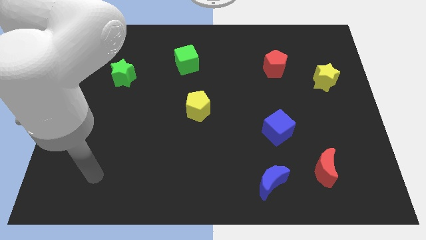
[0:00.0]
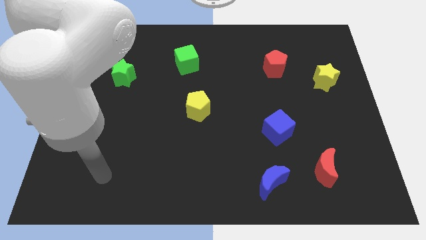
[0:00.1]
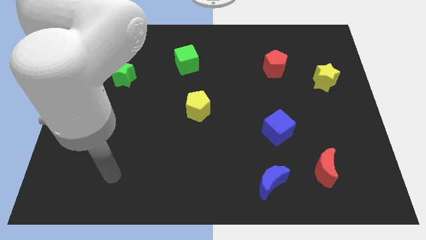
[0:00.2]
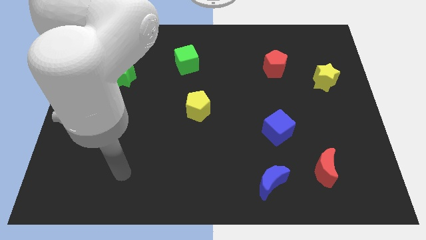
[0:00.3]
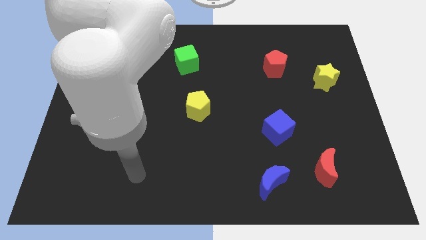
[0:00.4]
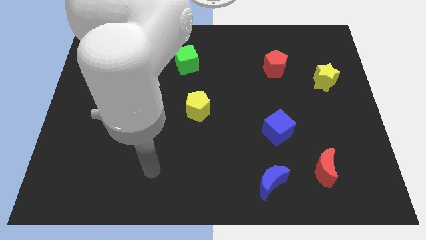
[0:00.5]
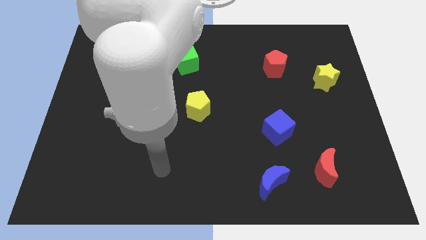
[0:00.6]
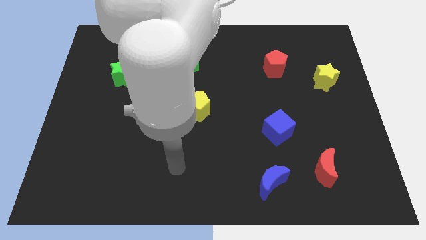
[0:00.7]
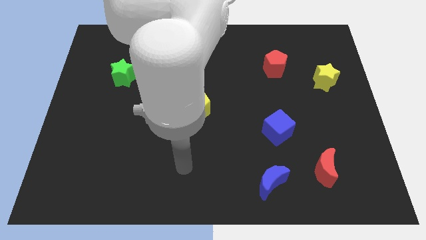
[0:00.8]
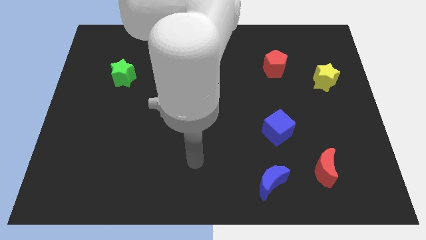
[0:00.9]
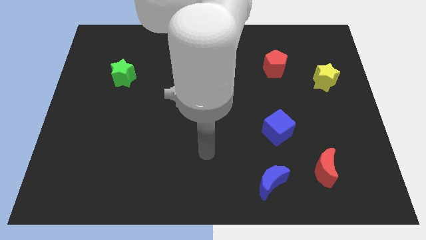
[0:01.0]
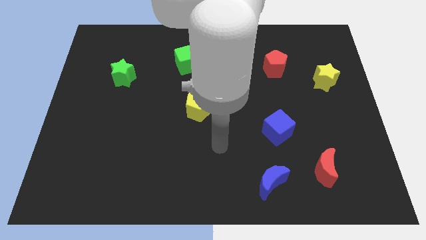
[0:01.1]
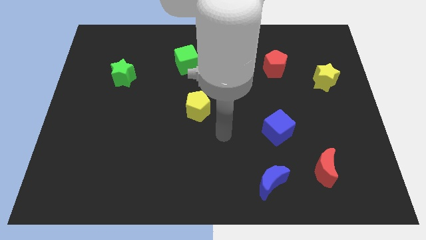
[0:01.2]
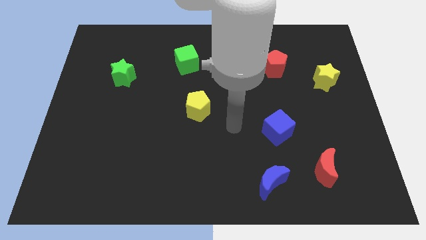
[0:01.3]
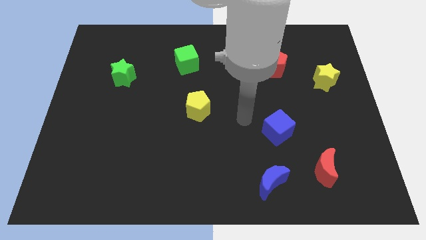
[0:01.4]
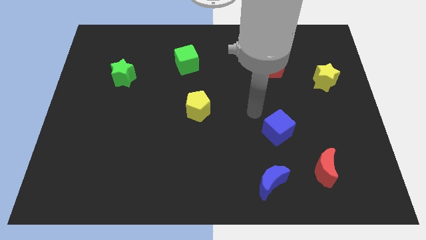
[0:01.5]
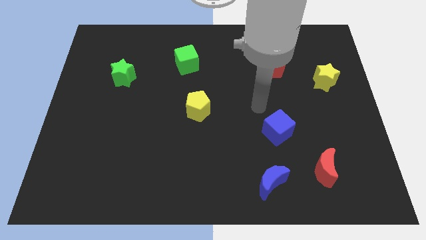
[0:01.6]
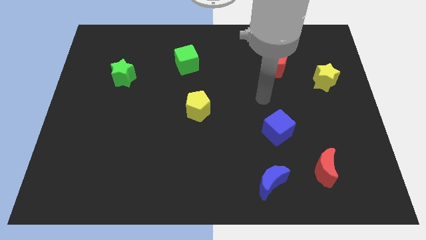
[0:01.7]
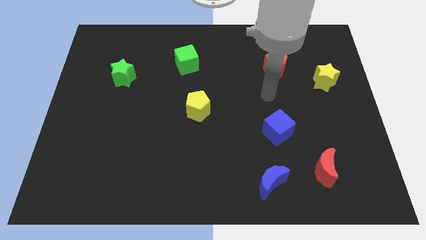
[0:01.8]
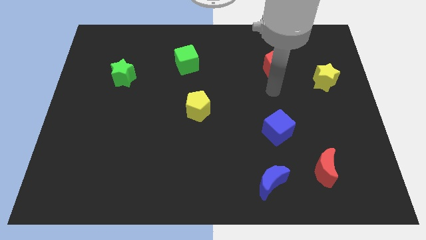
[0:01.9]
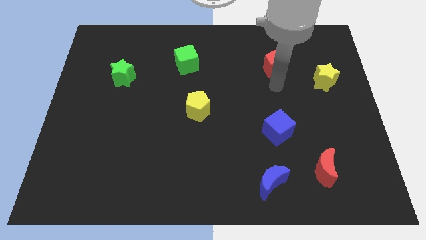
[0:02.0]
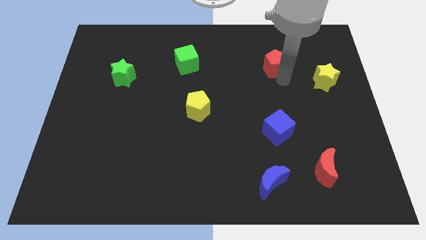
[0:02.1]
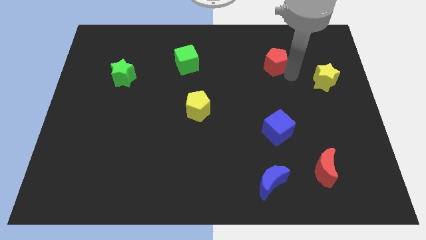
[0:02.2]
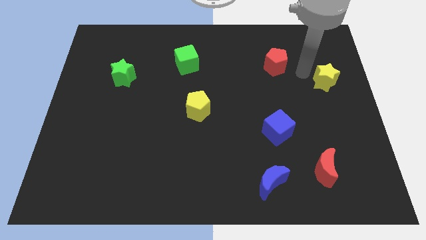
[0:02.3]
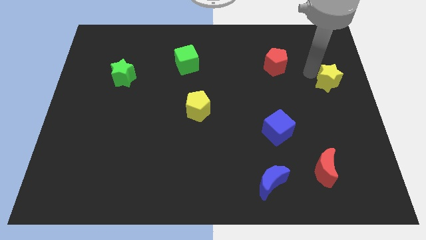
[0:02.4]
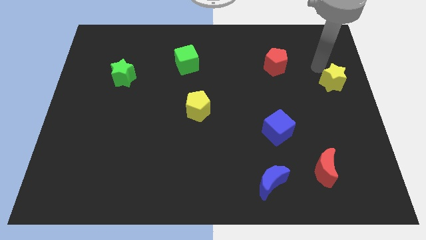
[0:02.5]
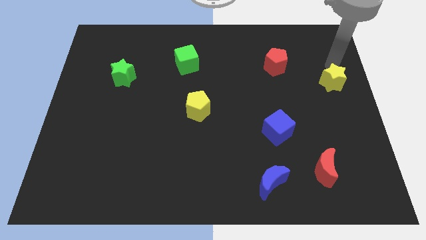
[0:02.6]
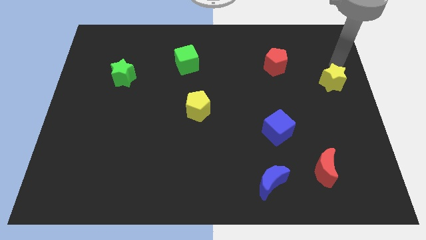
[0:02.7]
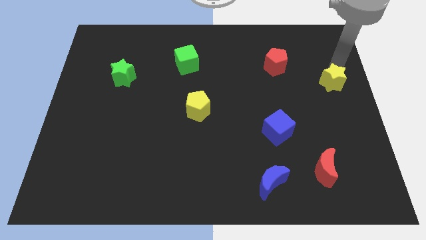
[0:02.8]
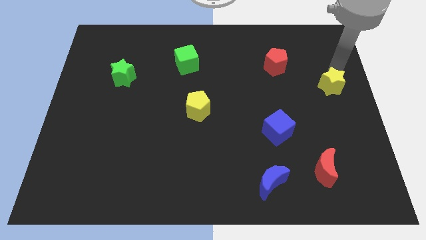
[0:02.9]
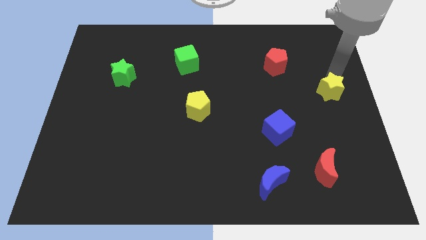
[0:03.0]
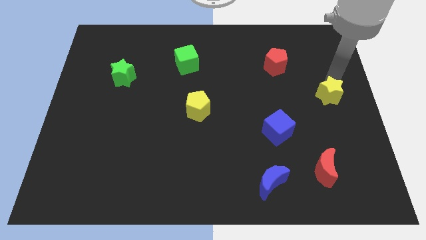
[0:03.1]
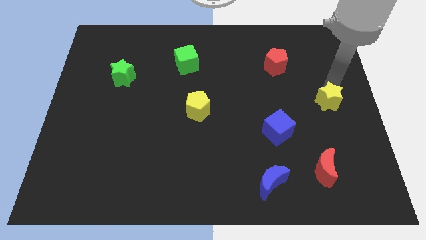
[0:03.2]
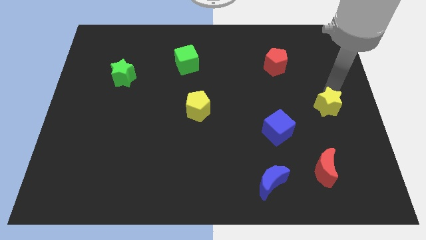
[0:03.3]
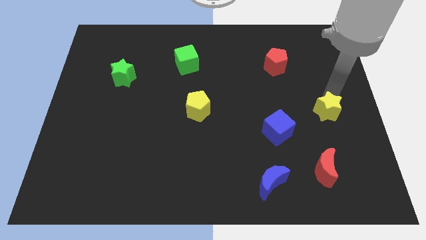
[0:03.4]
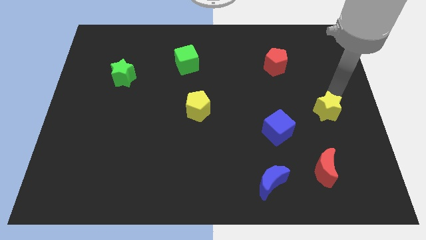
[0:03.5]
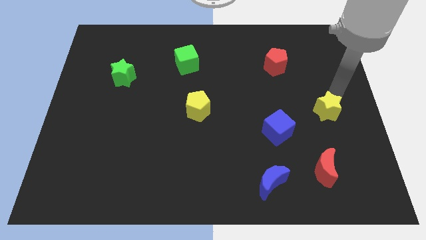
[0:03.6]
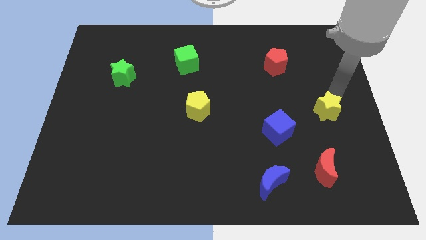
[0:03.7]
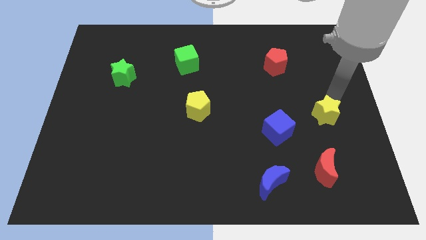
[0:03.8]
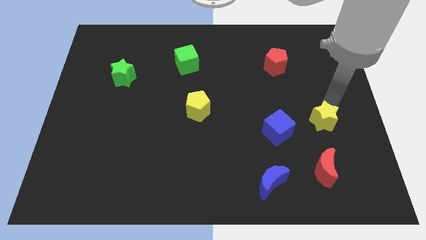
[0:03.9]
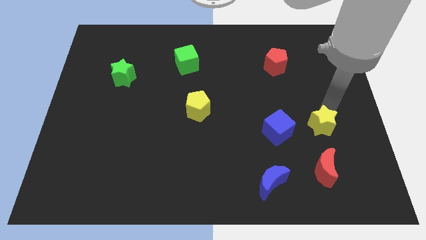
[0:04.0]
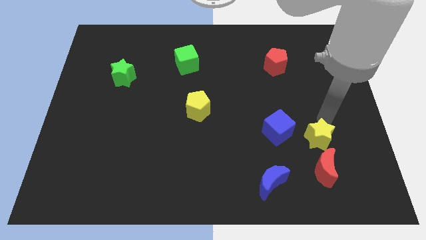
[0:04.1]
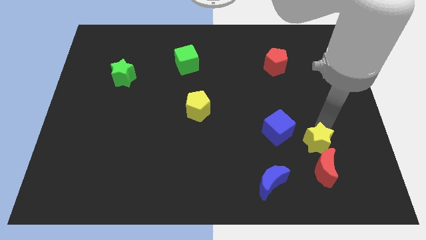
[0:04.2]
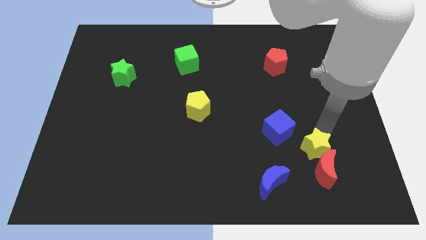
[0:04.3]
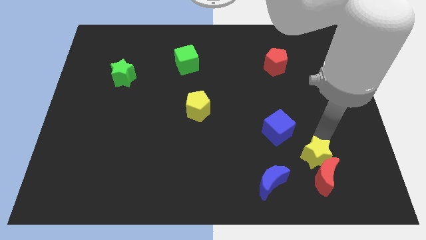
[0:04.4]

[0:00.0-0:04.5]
move the yellow star to the top right of the blue moon

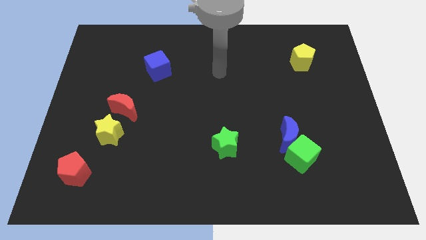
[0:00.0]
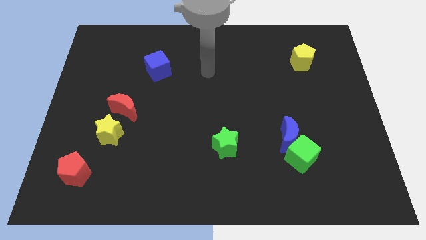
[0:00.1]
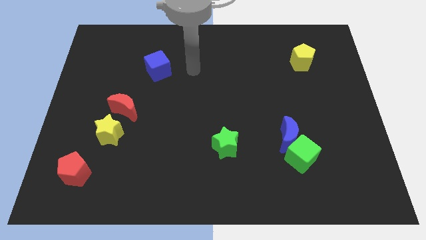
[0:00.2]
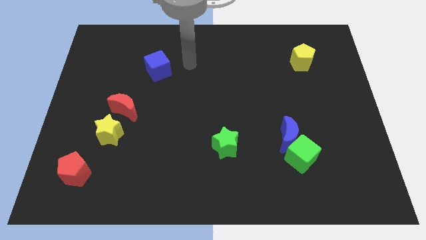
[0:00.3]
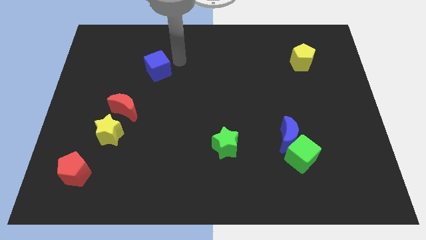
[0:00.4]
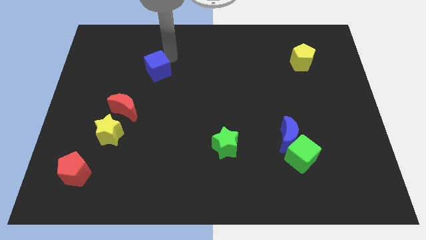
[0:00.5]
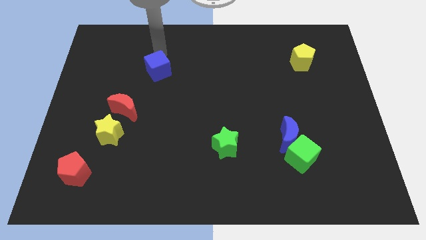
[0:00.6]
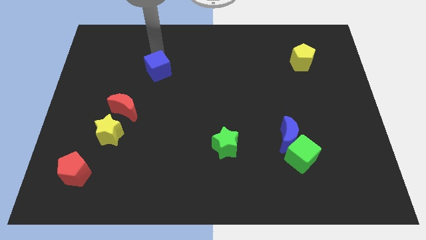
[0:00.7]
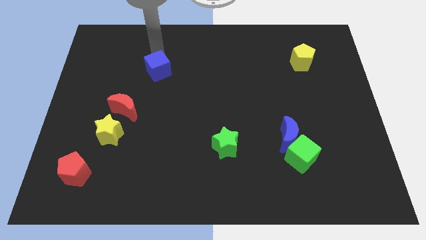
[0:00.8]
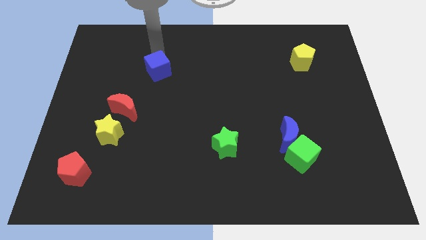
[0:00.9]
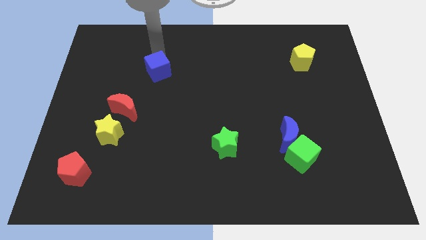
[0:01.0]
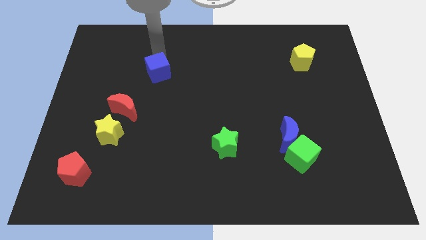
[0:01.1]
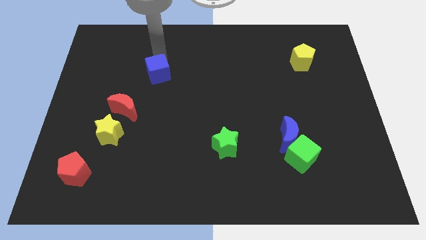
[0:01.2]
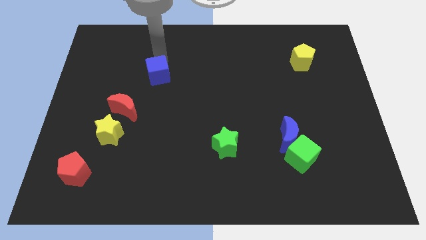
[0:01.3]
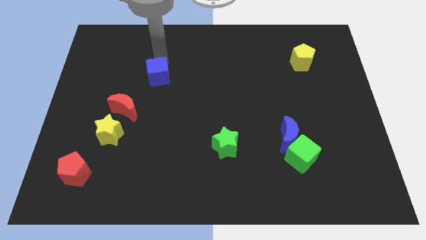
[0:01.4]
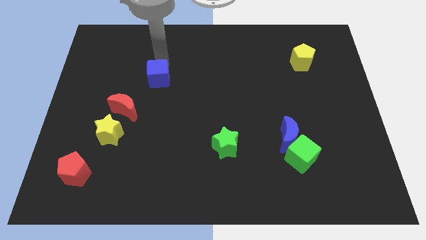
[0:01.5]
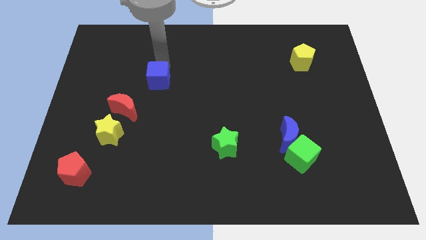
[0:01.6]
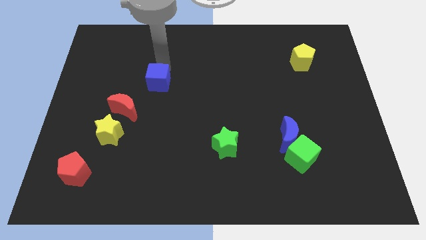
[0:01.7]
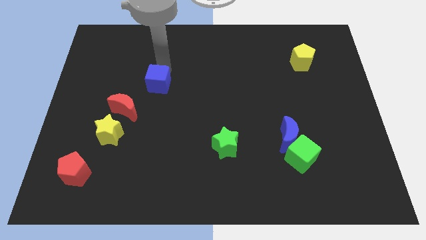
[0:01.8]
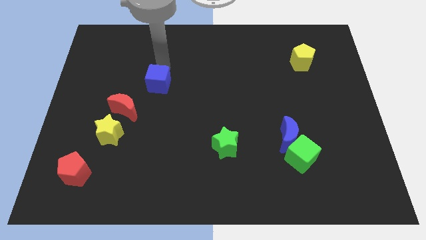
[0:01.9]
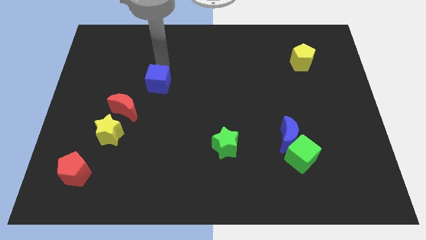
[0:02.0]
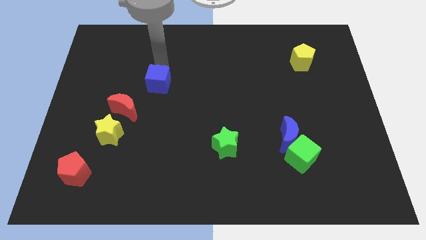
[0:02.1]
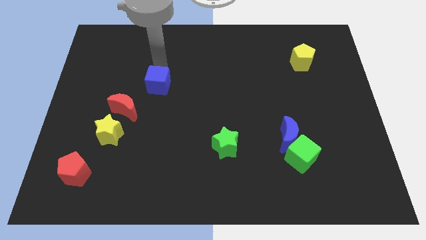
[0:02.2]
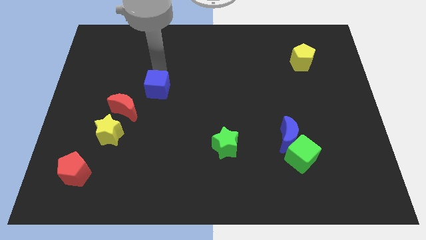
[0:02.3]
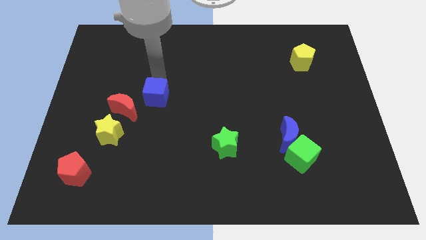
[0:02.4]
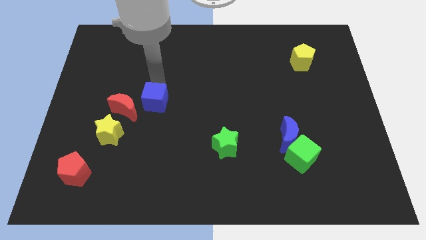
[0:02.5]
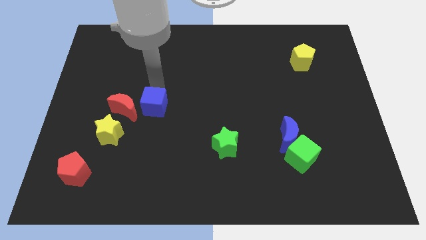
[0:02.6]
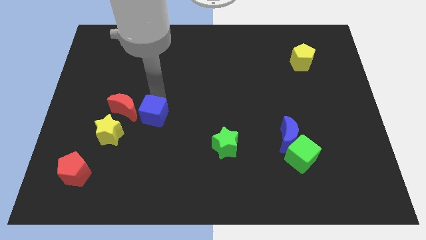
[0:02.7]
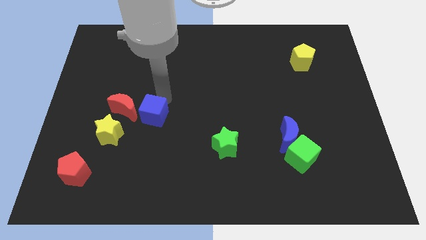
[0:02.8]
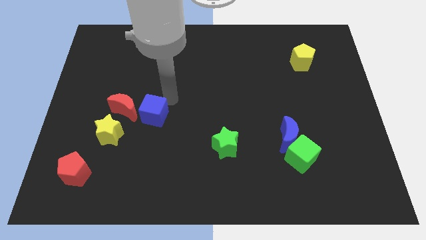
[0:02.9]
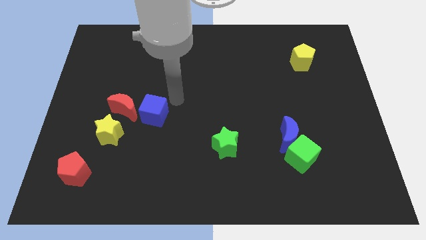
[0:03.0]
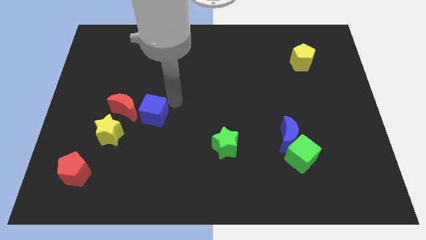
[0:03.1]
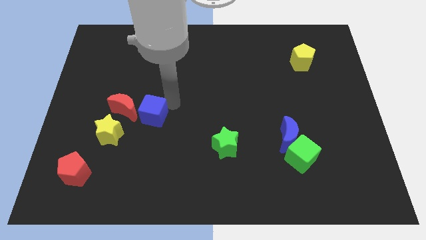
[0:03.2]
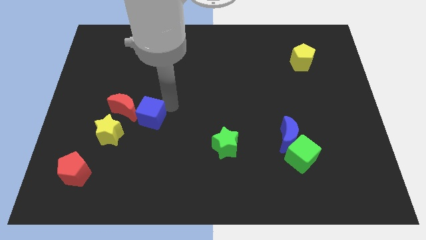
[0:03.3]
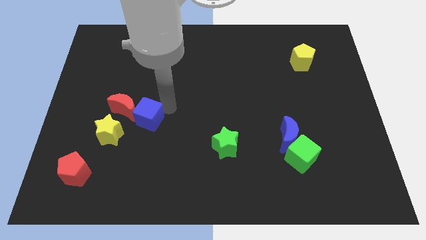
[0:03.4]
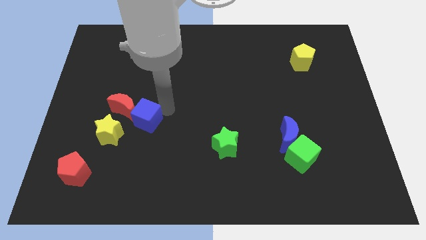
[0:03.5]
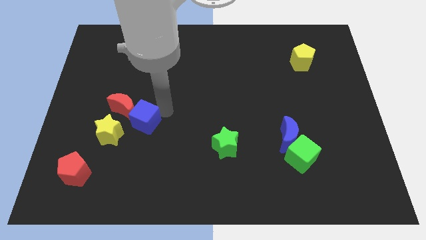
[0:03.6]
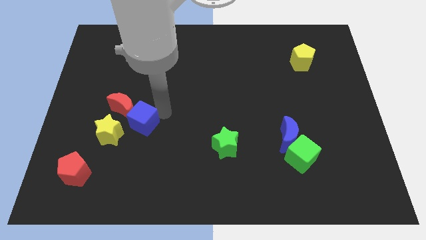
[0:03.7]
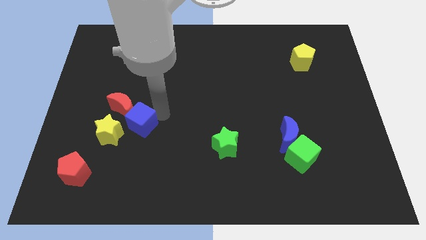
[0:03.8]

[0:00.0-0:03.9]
slide the blue cube below the red moon
